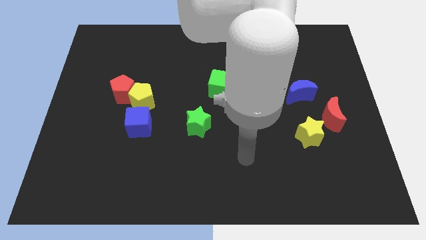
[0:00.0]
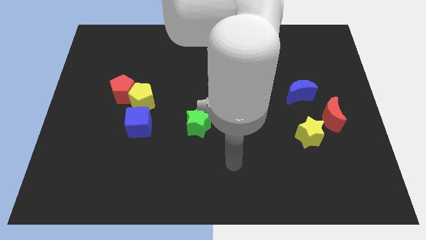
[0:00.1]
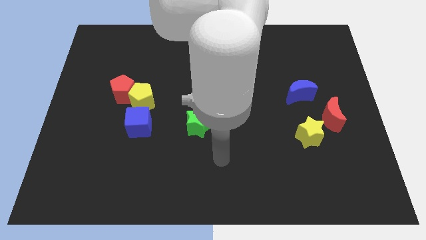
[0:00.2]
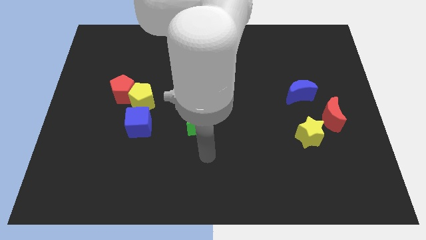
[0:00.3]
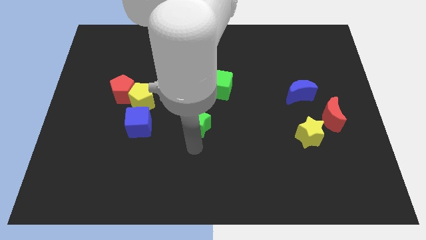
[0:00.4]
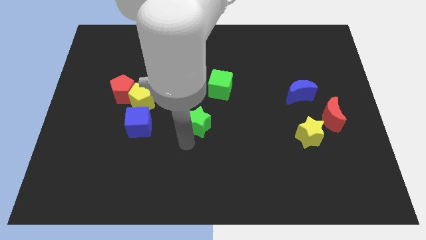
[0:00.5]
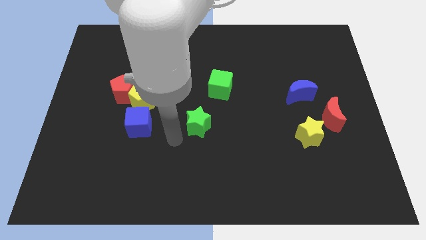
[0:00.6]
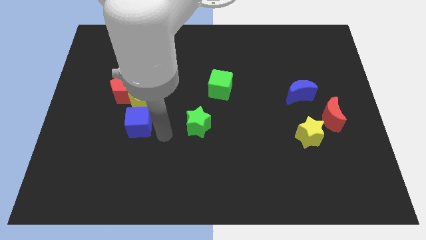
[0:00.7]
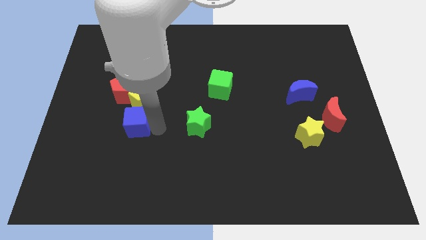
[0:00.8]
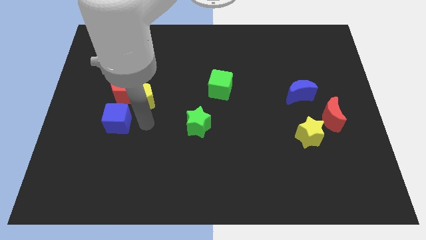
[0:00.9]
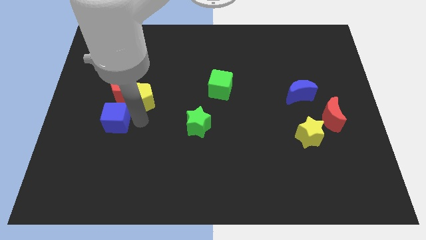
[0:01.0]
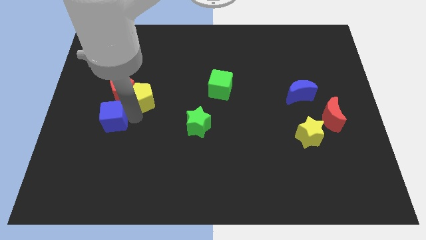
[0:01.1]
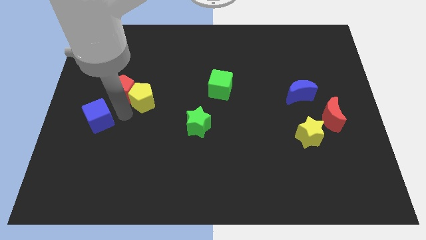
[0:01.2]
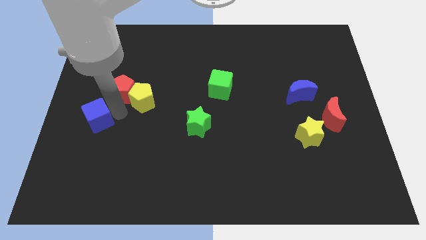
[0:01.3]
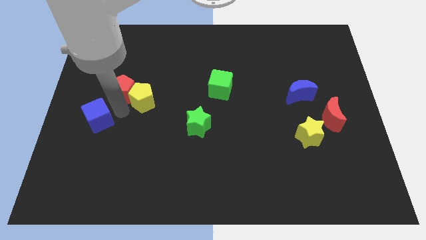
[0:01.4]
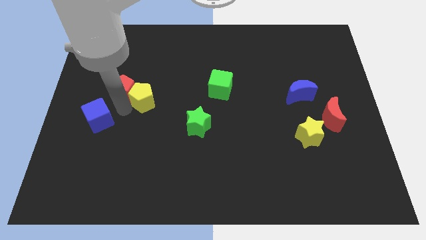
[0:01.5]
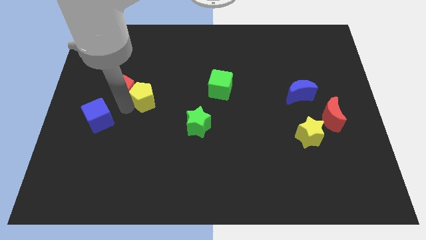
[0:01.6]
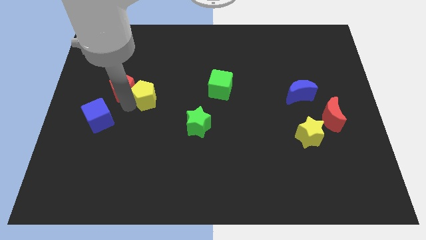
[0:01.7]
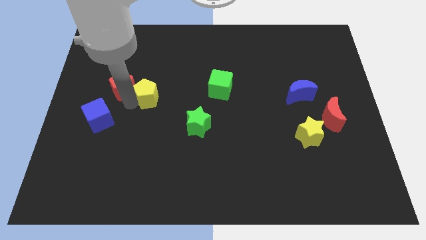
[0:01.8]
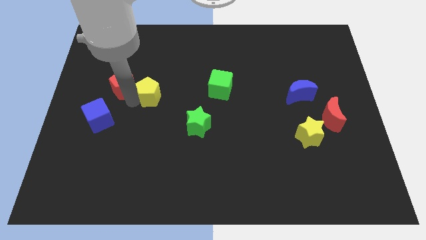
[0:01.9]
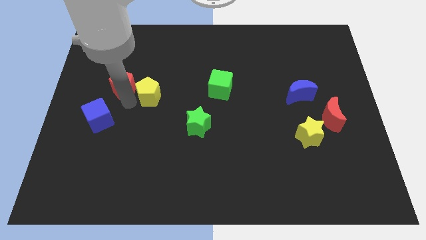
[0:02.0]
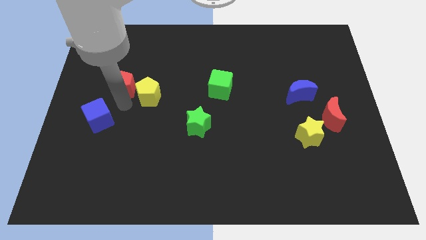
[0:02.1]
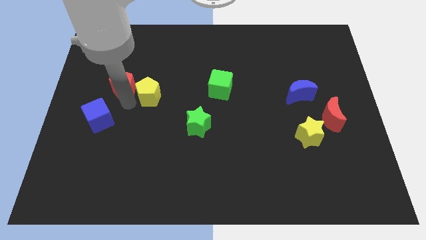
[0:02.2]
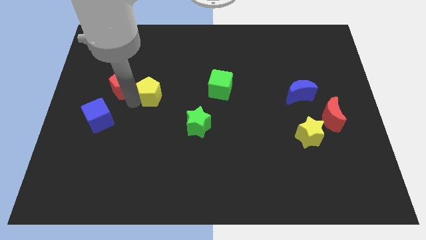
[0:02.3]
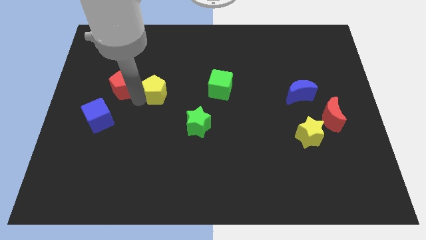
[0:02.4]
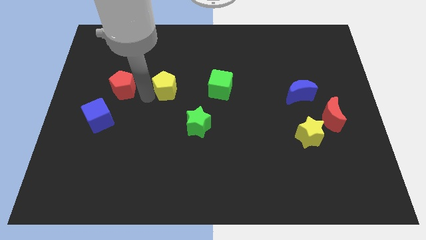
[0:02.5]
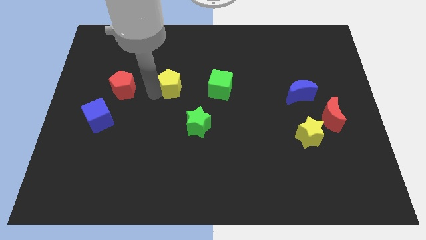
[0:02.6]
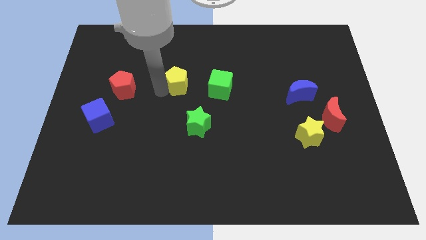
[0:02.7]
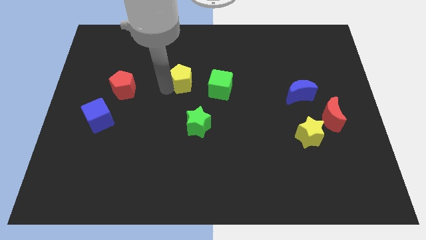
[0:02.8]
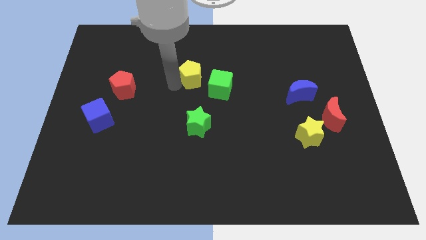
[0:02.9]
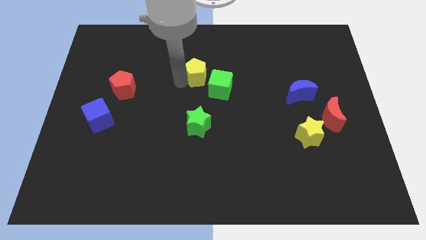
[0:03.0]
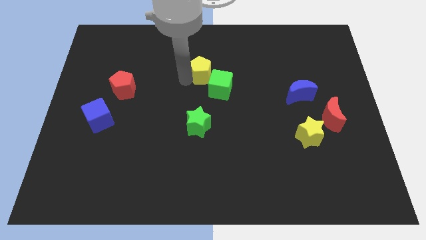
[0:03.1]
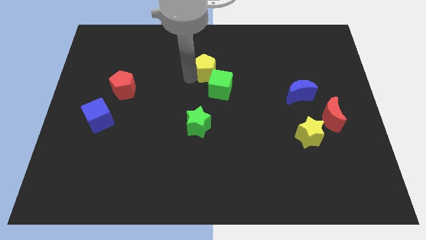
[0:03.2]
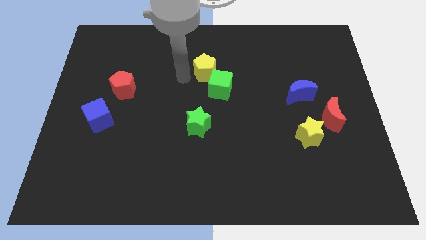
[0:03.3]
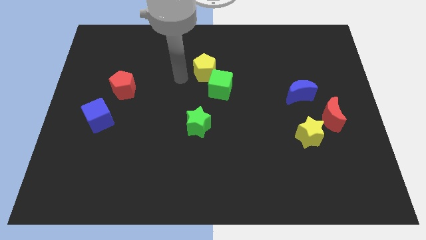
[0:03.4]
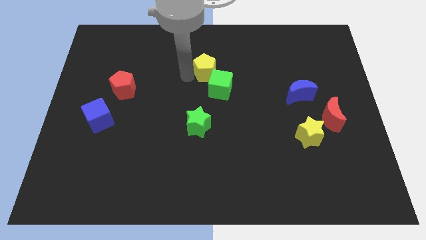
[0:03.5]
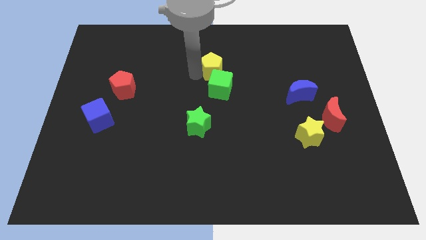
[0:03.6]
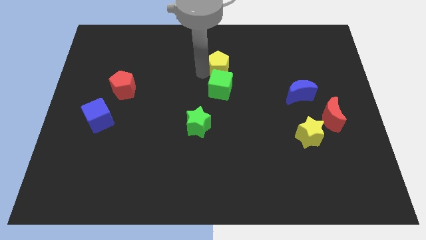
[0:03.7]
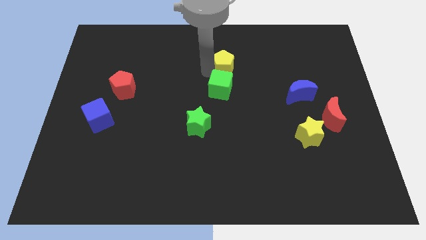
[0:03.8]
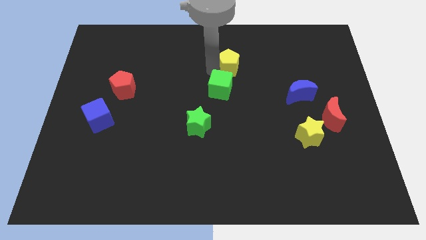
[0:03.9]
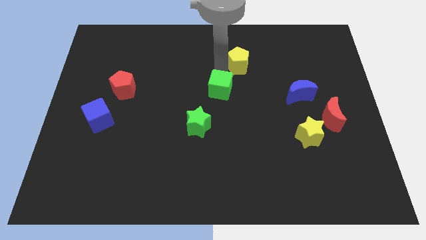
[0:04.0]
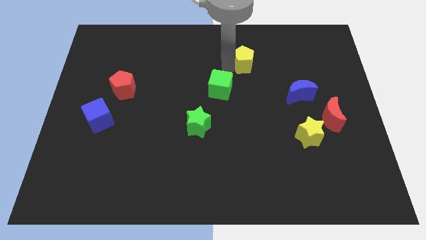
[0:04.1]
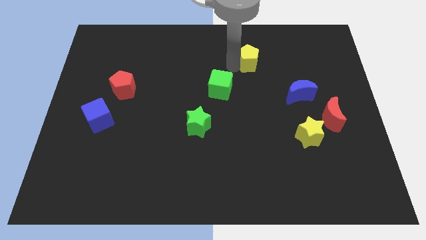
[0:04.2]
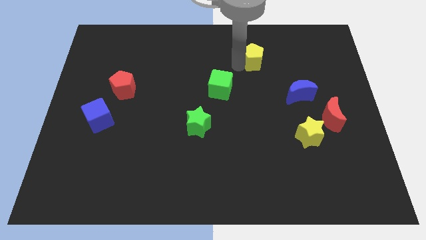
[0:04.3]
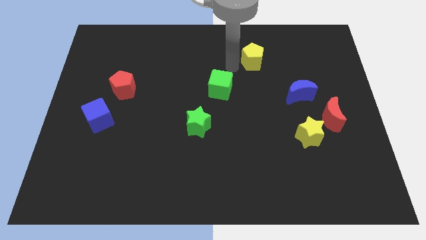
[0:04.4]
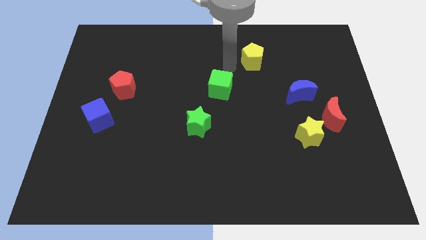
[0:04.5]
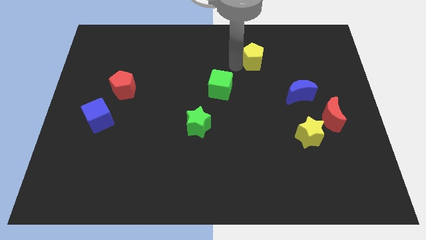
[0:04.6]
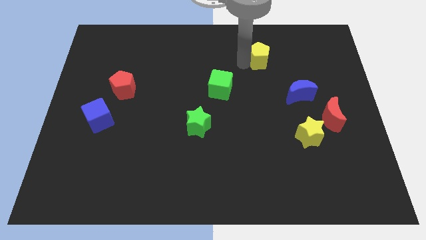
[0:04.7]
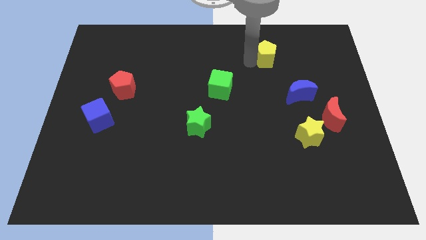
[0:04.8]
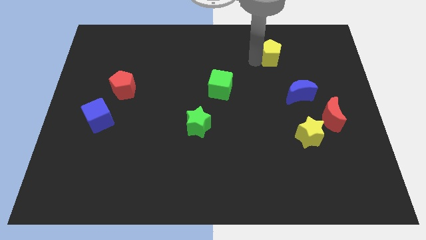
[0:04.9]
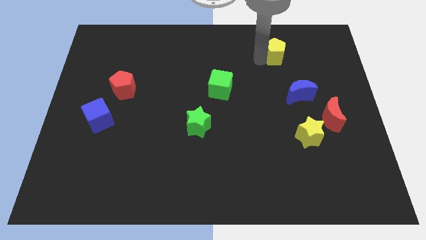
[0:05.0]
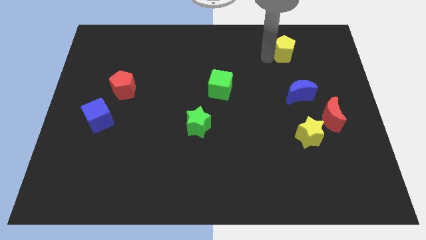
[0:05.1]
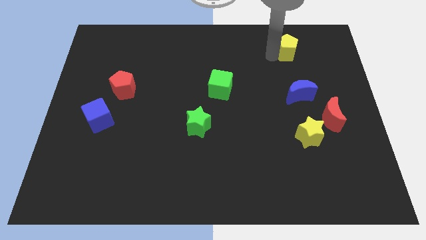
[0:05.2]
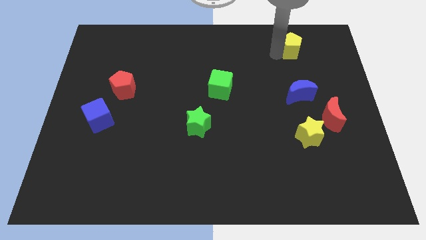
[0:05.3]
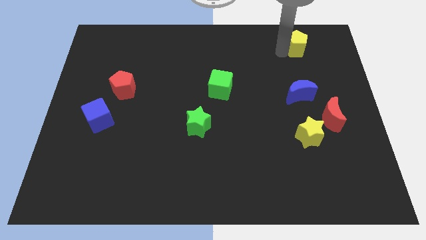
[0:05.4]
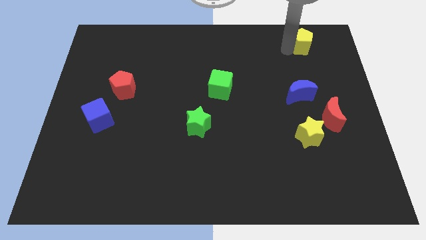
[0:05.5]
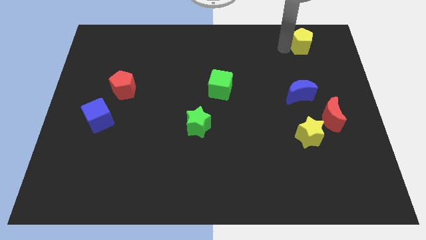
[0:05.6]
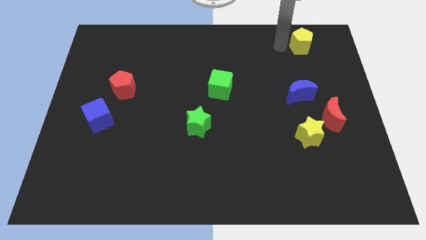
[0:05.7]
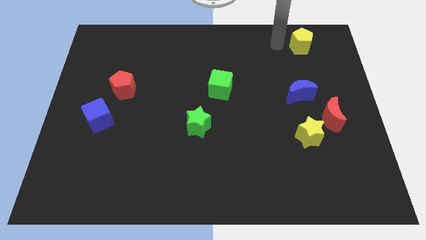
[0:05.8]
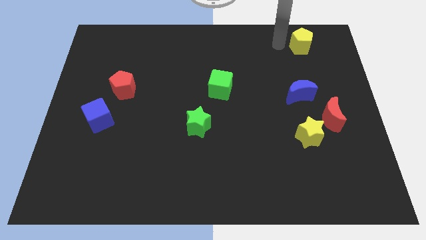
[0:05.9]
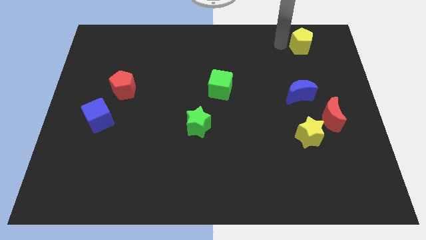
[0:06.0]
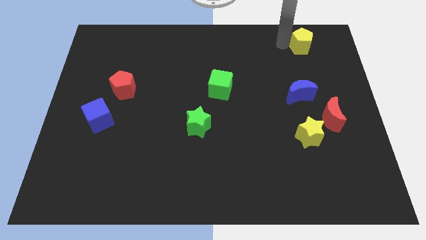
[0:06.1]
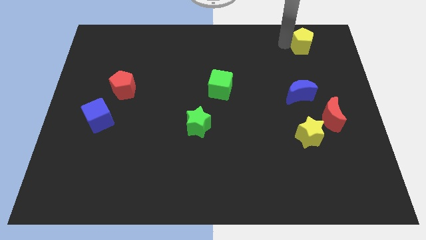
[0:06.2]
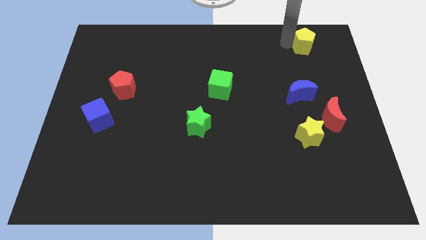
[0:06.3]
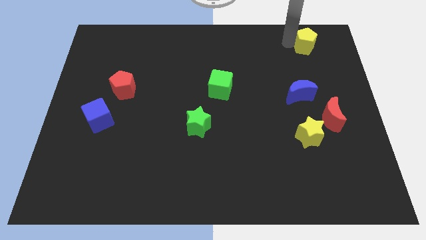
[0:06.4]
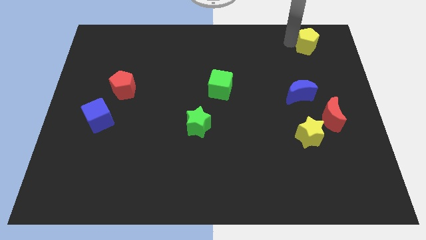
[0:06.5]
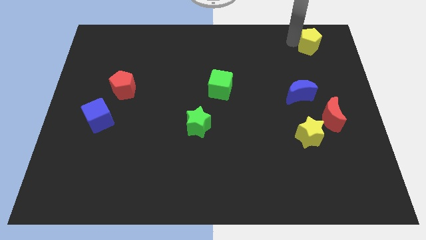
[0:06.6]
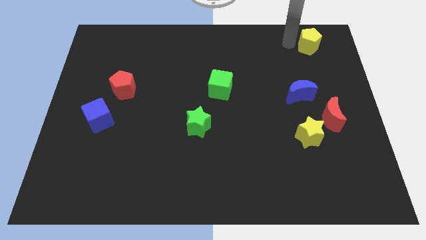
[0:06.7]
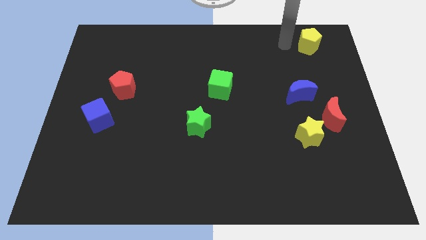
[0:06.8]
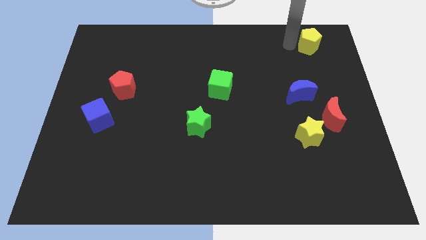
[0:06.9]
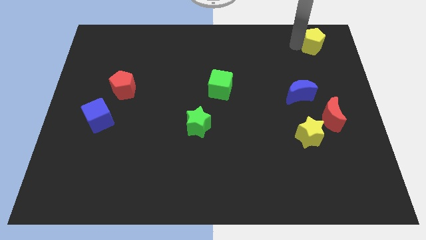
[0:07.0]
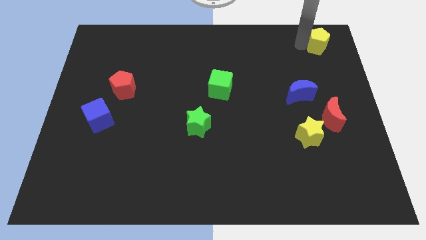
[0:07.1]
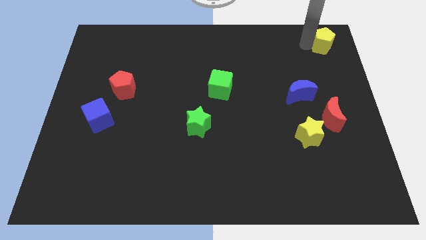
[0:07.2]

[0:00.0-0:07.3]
slide the yellow pentagon to the top right corner
